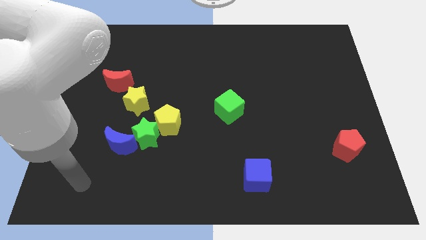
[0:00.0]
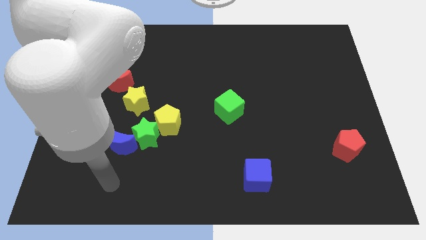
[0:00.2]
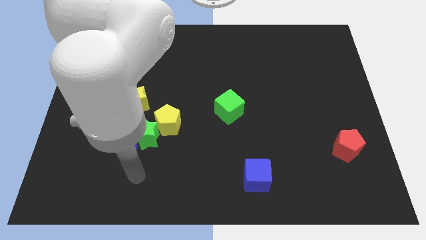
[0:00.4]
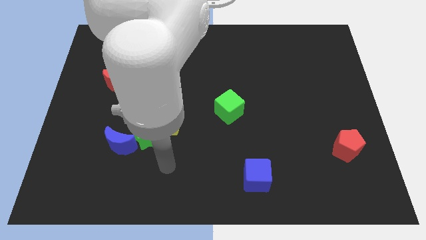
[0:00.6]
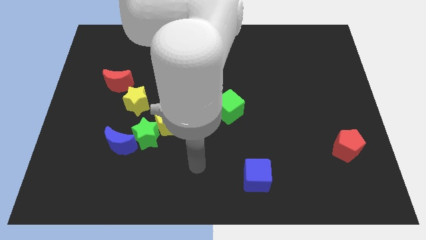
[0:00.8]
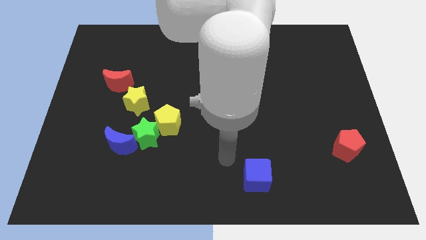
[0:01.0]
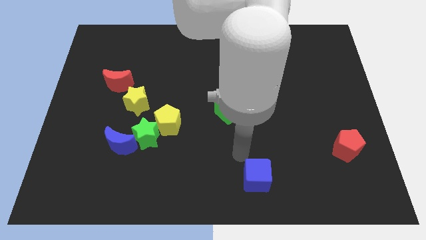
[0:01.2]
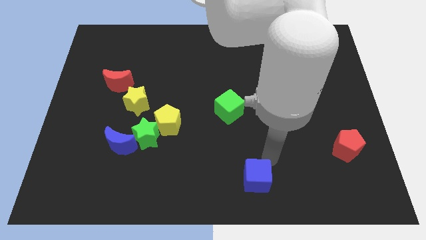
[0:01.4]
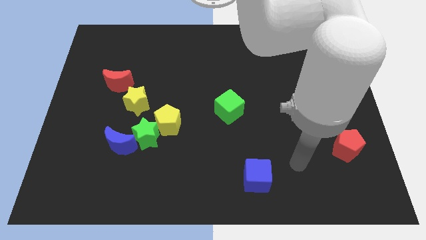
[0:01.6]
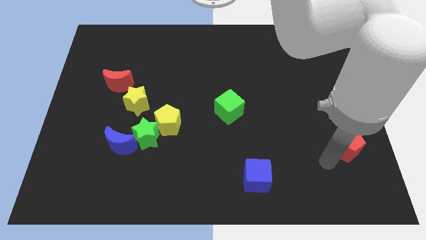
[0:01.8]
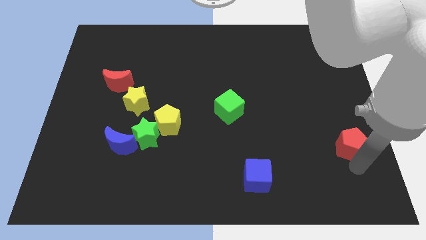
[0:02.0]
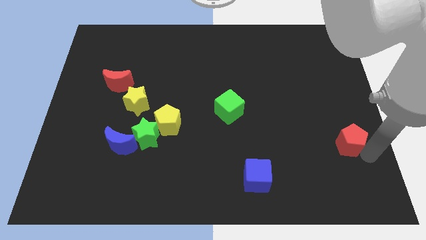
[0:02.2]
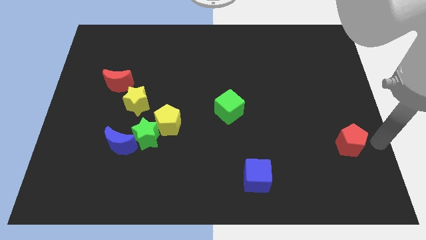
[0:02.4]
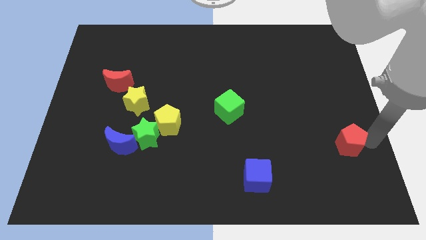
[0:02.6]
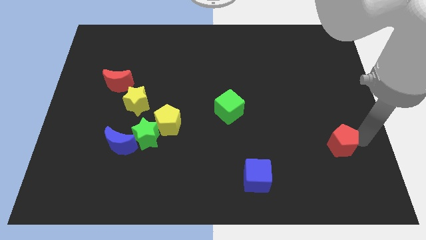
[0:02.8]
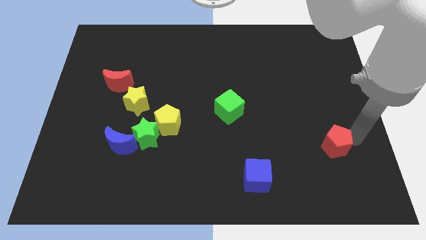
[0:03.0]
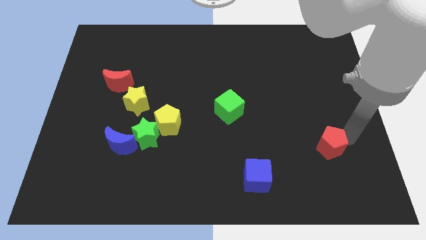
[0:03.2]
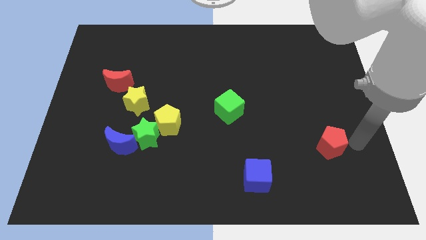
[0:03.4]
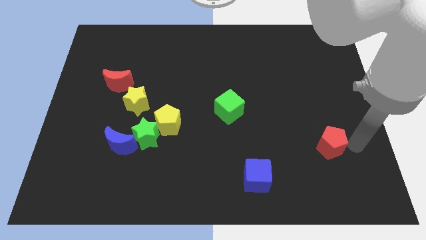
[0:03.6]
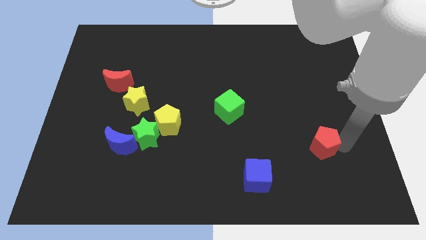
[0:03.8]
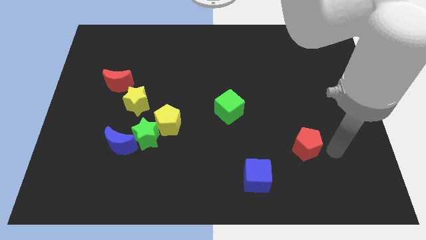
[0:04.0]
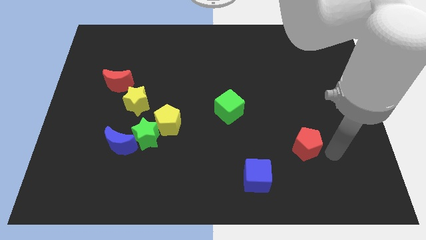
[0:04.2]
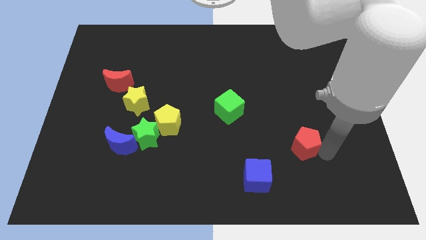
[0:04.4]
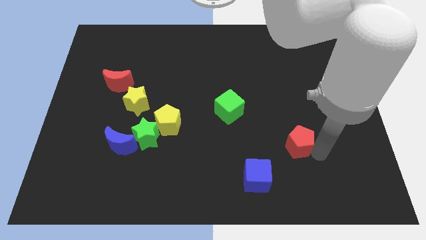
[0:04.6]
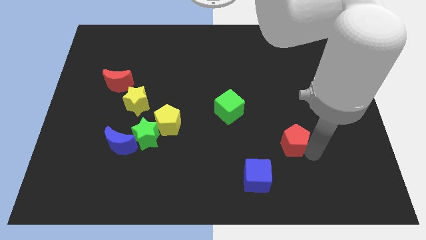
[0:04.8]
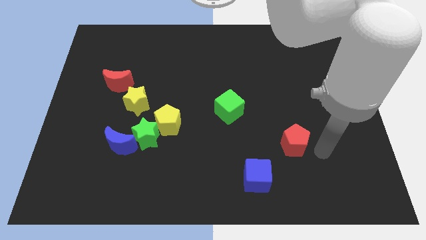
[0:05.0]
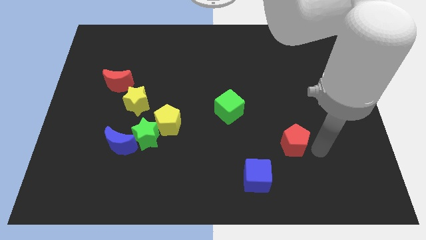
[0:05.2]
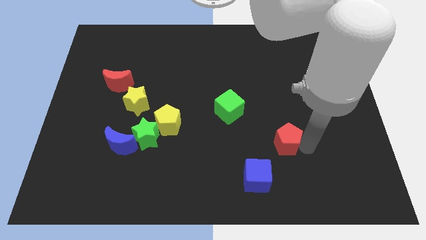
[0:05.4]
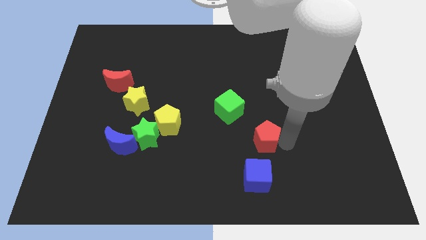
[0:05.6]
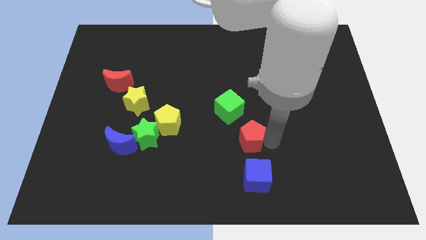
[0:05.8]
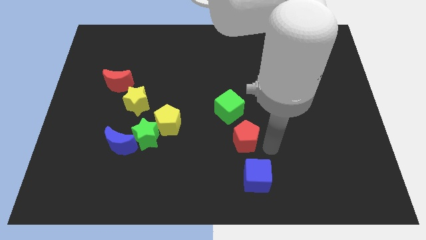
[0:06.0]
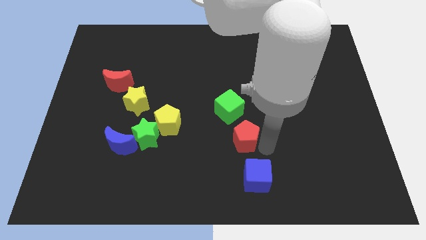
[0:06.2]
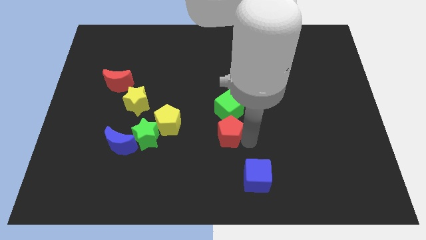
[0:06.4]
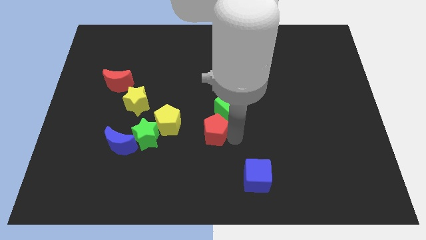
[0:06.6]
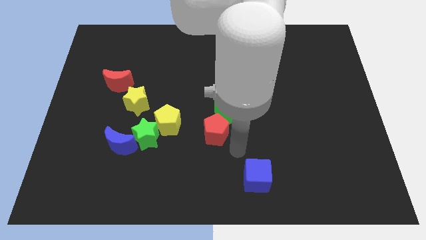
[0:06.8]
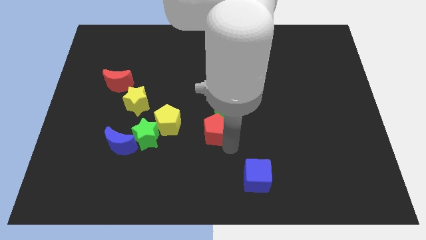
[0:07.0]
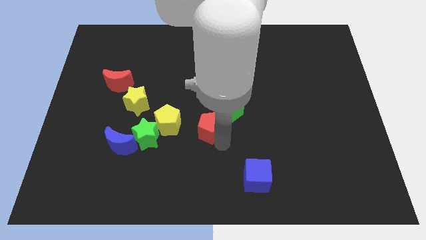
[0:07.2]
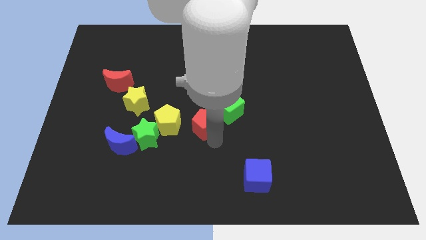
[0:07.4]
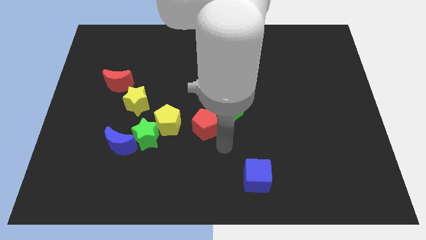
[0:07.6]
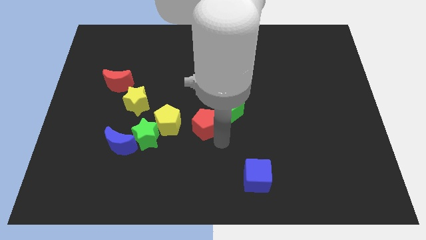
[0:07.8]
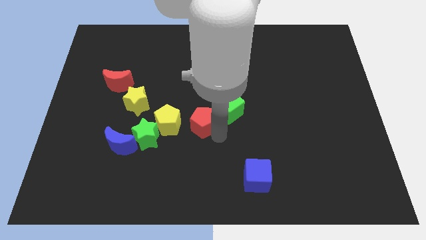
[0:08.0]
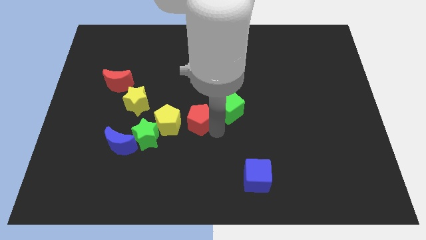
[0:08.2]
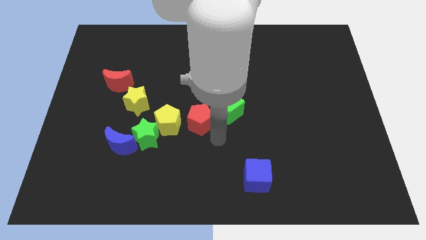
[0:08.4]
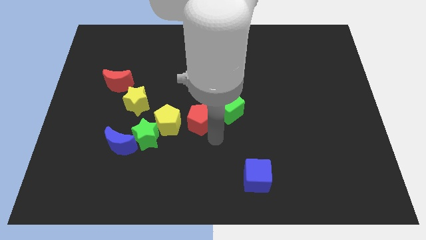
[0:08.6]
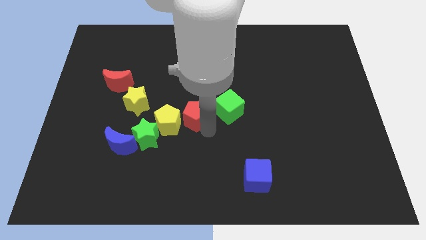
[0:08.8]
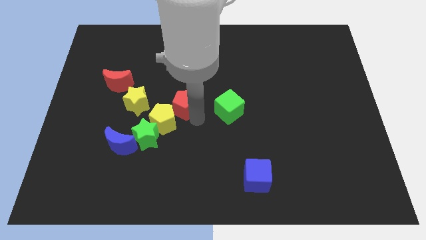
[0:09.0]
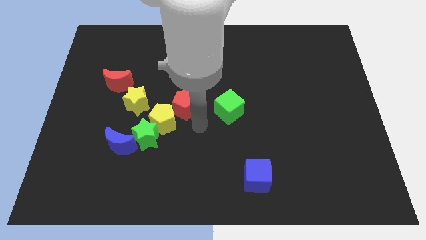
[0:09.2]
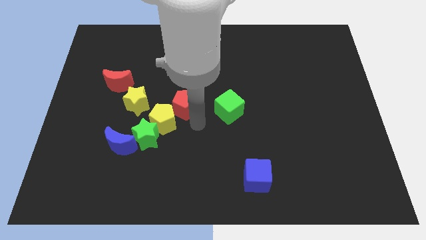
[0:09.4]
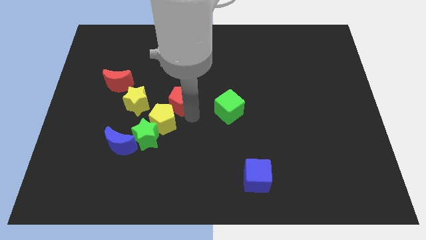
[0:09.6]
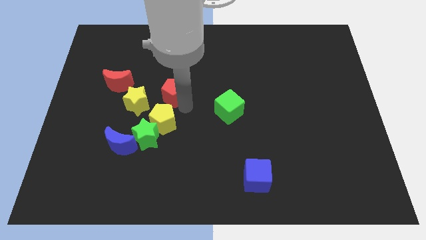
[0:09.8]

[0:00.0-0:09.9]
move the red pentagon diagonally up and to the right of the yellow star

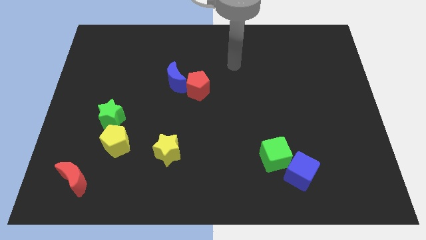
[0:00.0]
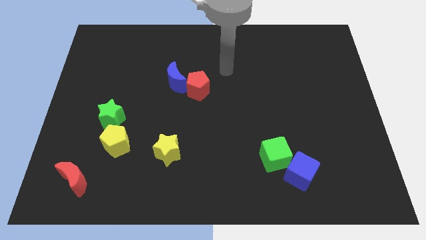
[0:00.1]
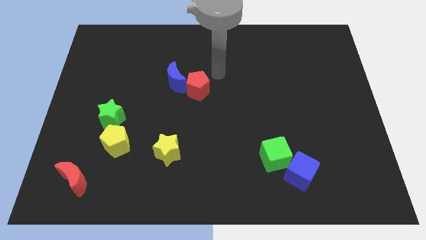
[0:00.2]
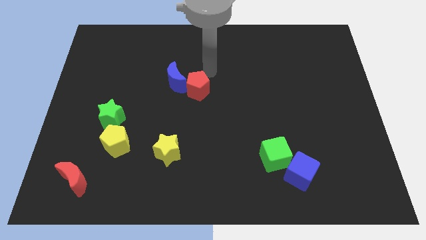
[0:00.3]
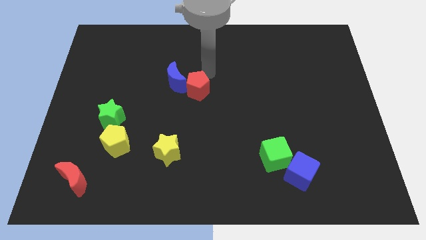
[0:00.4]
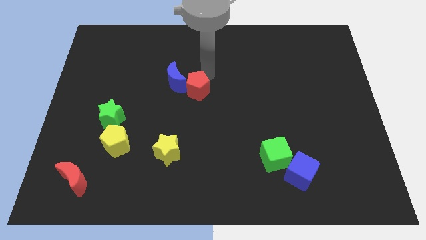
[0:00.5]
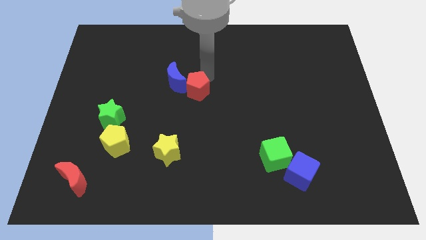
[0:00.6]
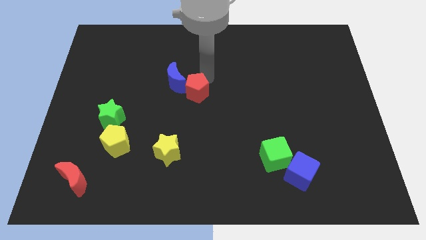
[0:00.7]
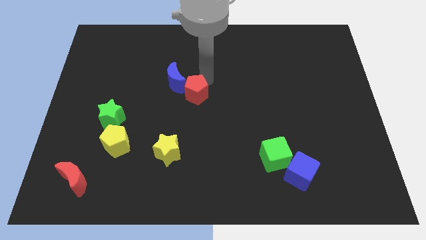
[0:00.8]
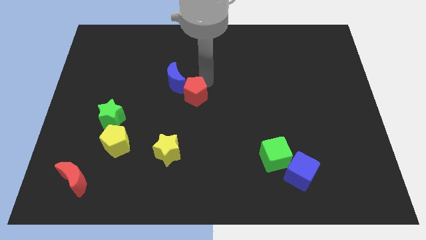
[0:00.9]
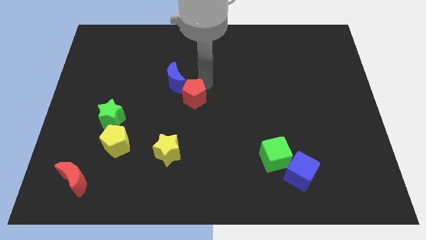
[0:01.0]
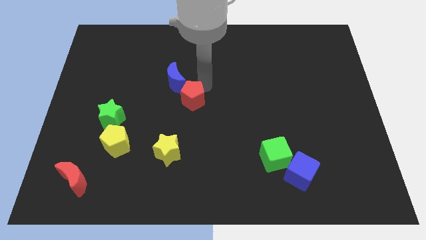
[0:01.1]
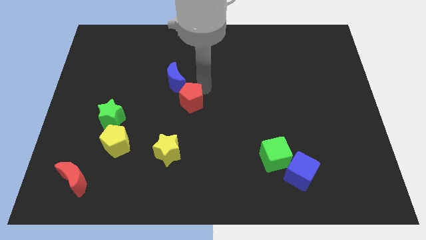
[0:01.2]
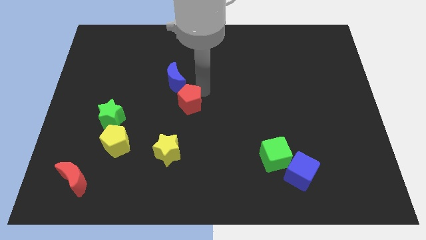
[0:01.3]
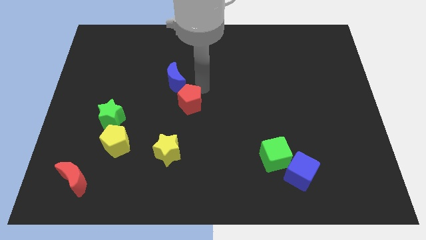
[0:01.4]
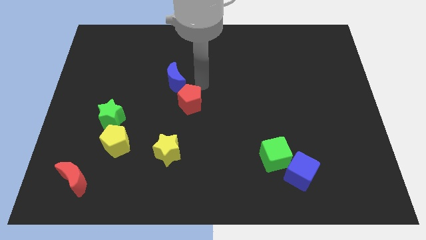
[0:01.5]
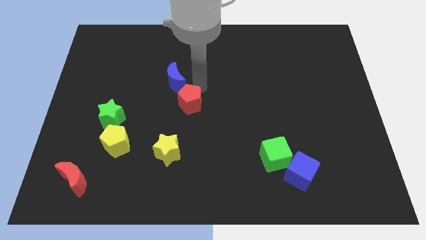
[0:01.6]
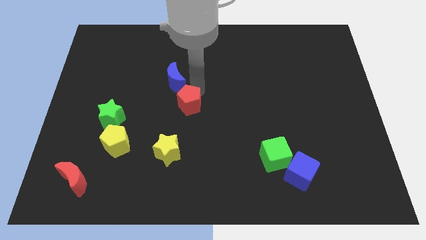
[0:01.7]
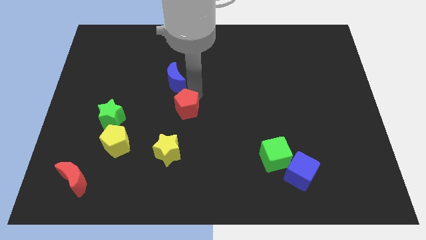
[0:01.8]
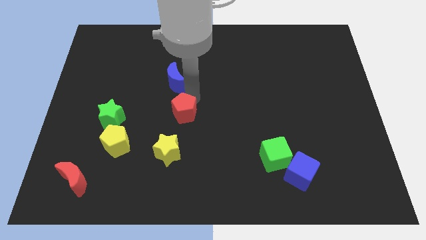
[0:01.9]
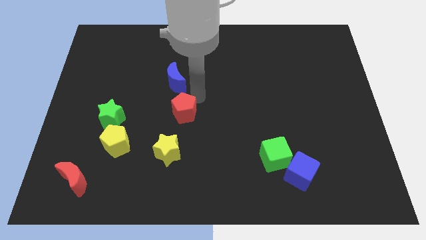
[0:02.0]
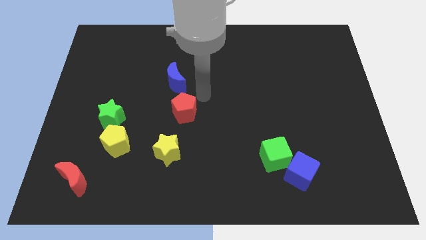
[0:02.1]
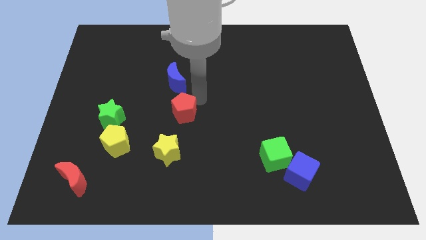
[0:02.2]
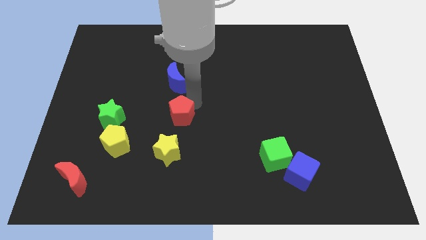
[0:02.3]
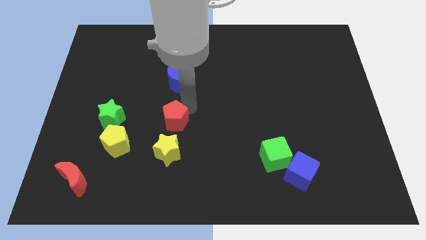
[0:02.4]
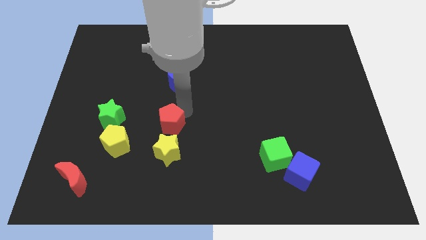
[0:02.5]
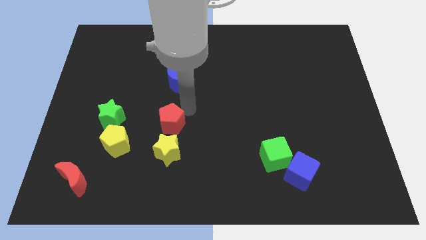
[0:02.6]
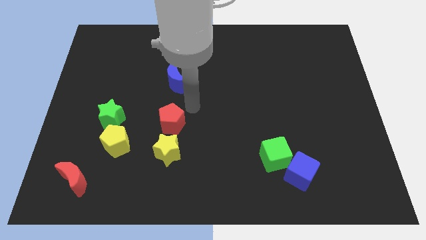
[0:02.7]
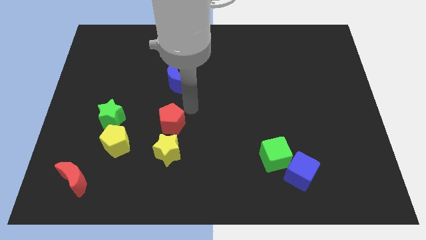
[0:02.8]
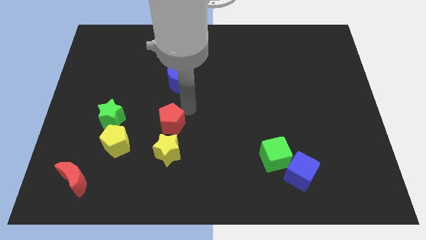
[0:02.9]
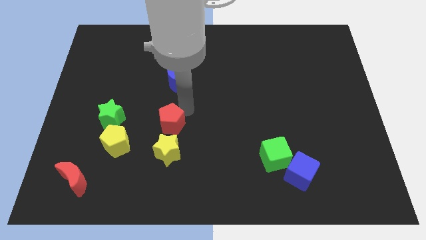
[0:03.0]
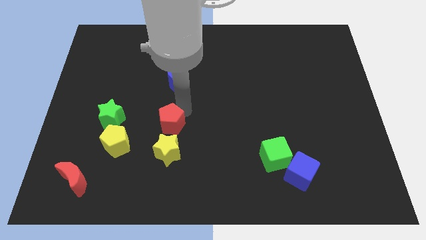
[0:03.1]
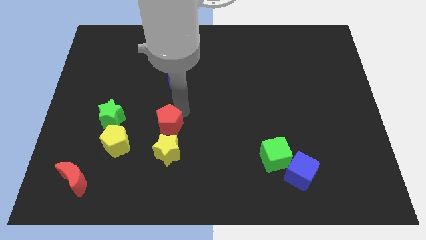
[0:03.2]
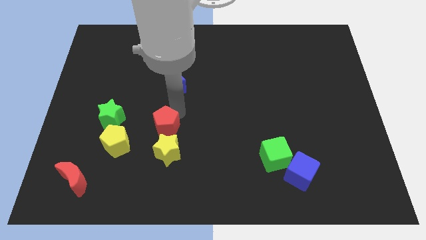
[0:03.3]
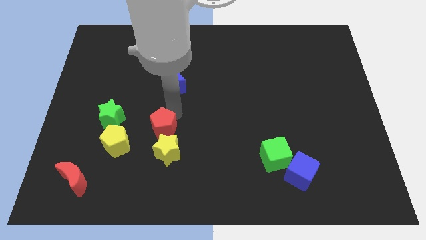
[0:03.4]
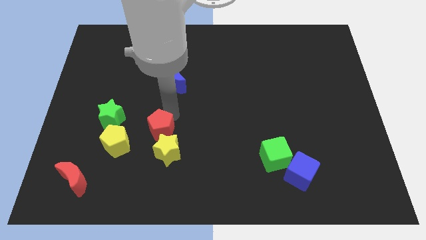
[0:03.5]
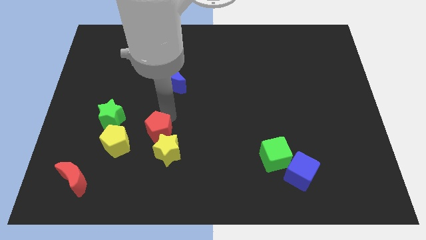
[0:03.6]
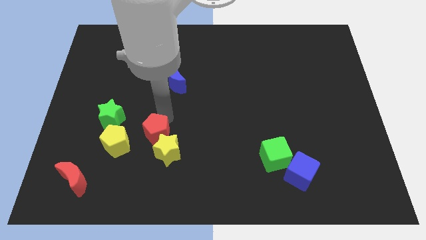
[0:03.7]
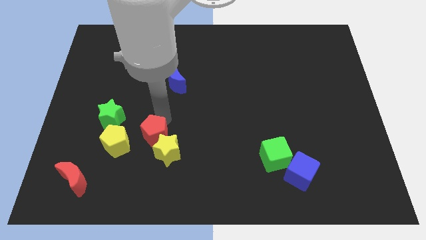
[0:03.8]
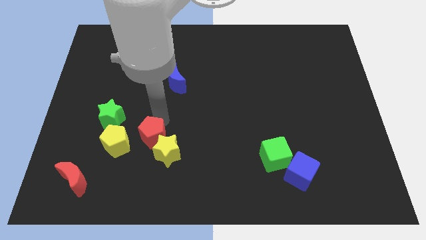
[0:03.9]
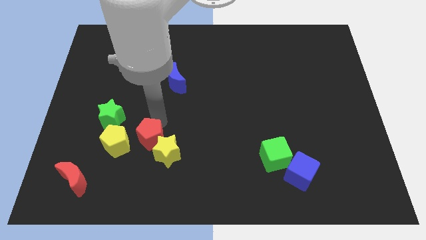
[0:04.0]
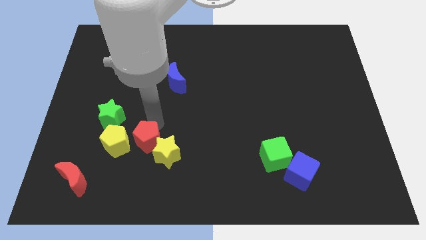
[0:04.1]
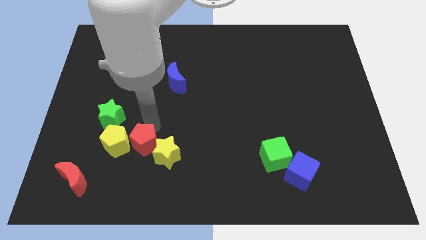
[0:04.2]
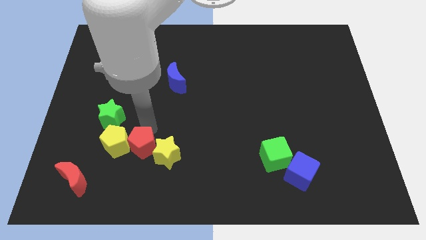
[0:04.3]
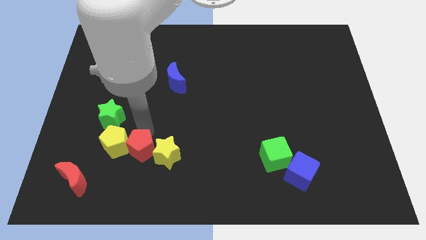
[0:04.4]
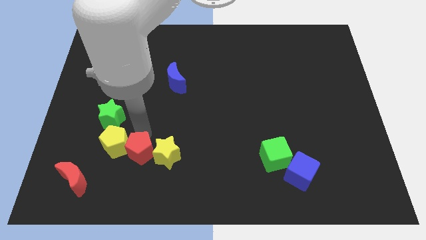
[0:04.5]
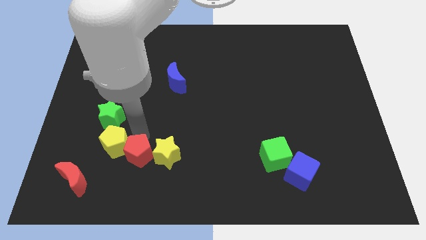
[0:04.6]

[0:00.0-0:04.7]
put the red pentagon to the bottom left side of the yellow star
